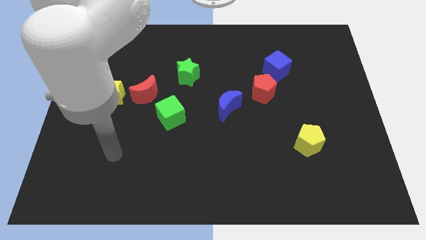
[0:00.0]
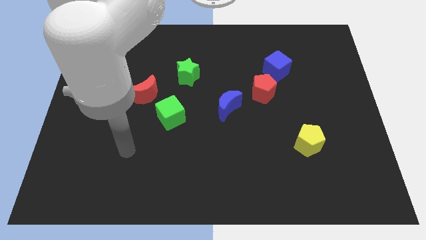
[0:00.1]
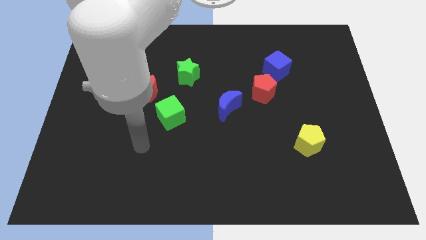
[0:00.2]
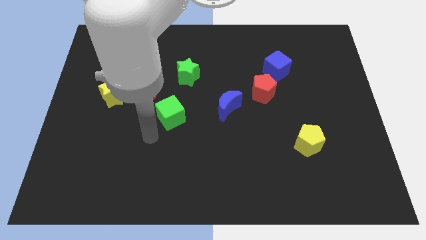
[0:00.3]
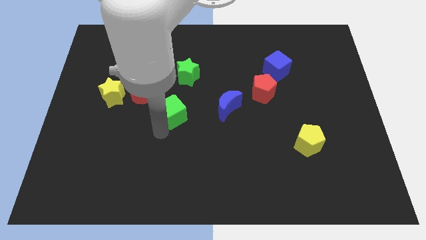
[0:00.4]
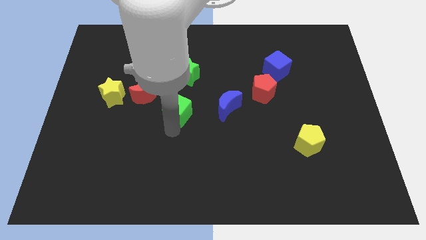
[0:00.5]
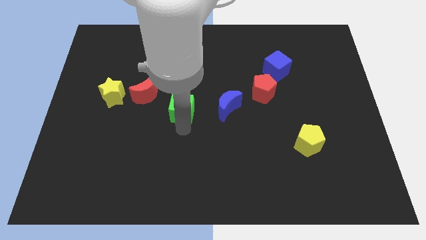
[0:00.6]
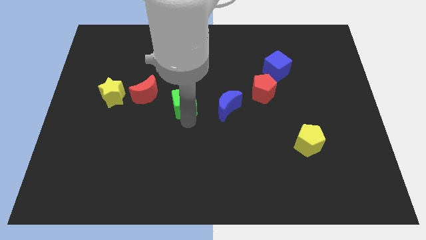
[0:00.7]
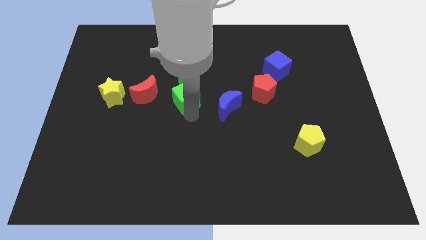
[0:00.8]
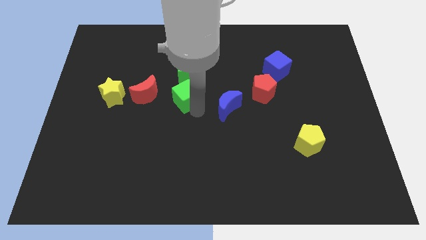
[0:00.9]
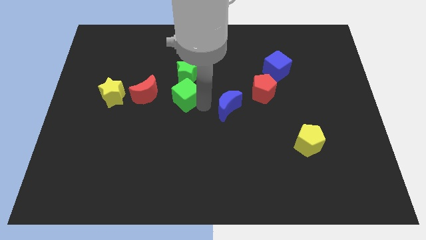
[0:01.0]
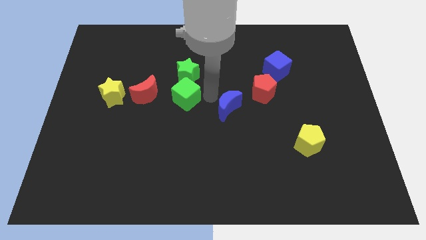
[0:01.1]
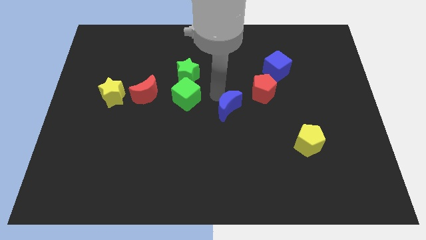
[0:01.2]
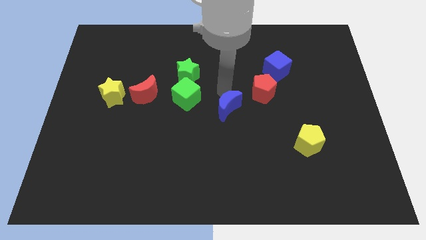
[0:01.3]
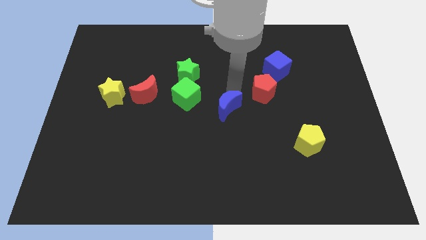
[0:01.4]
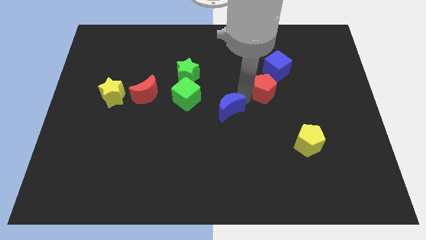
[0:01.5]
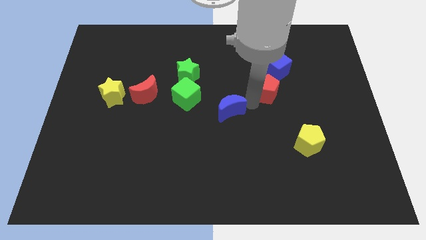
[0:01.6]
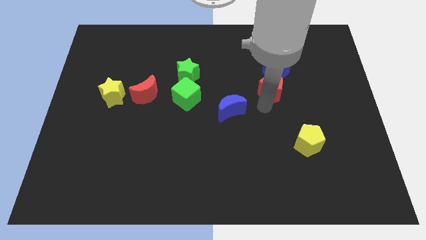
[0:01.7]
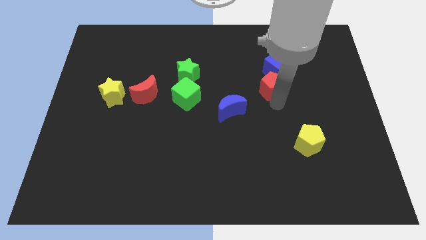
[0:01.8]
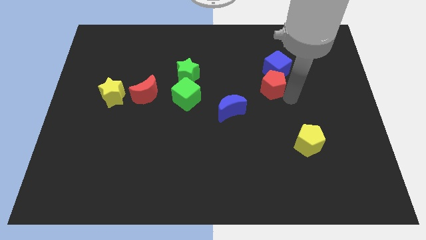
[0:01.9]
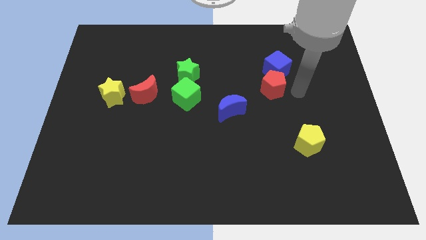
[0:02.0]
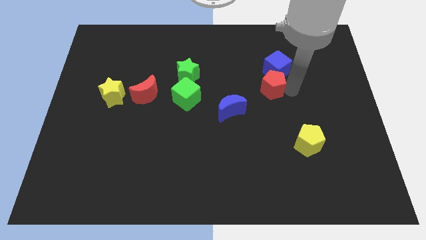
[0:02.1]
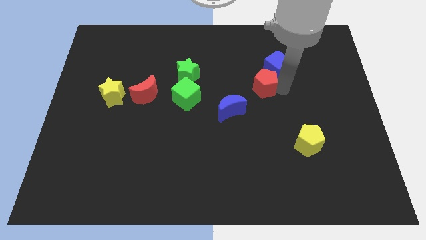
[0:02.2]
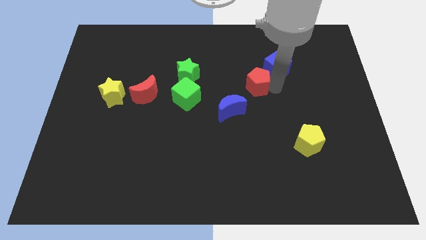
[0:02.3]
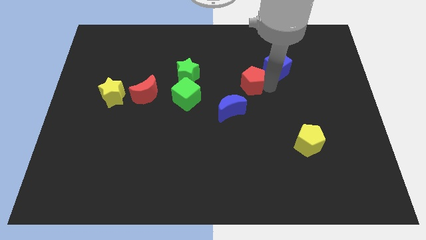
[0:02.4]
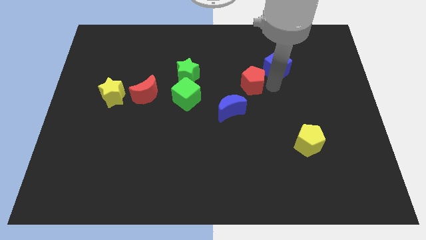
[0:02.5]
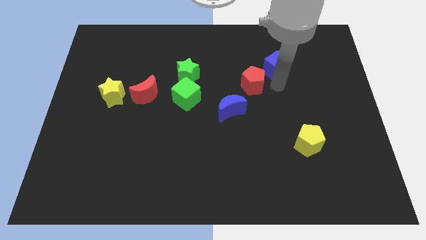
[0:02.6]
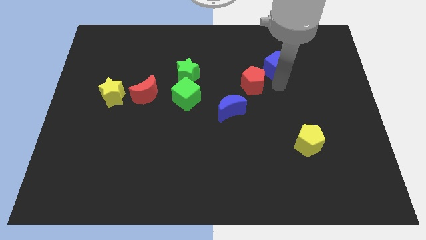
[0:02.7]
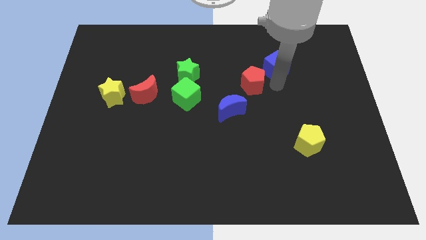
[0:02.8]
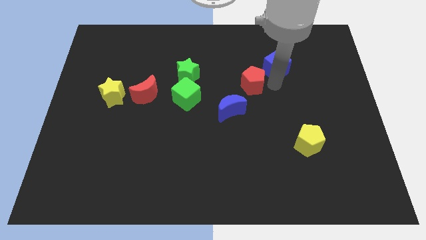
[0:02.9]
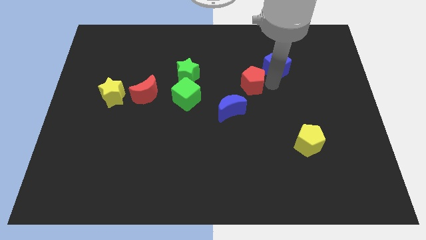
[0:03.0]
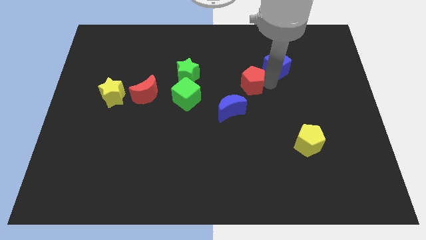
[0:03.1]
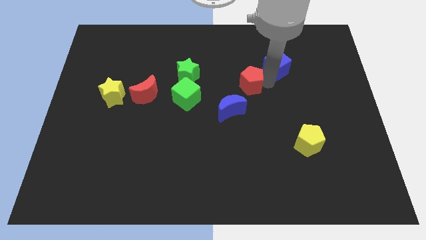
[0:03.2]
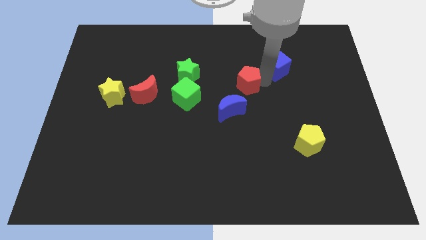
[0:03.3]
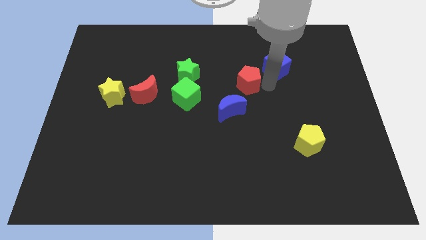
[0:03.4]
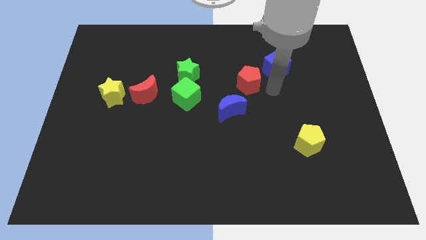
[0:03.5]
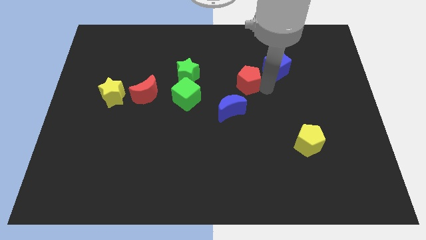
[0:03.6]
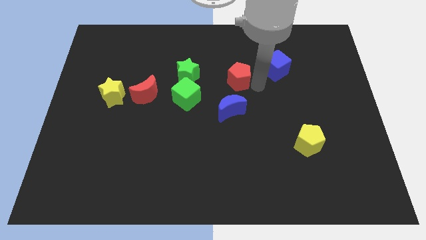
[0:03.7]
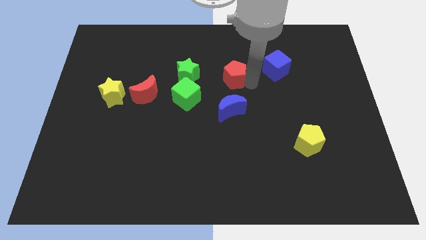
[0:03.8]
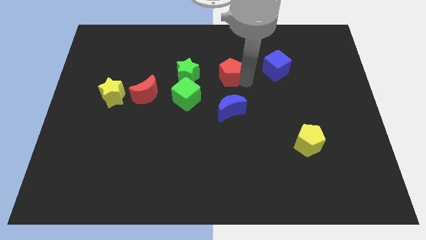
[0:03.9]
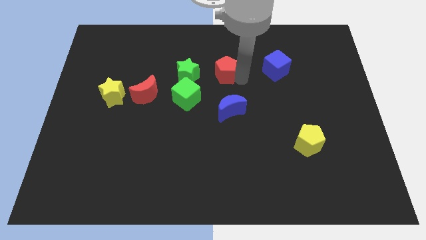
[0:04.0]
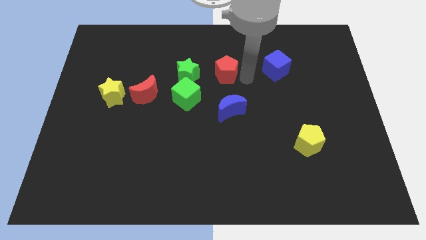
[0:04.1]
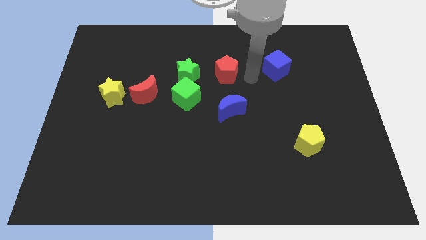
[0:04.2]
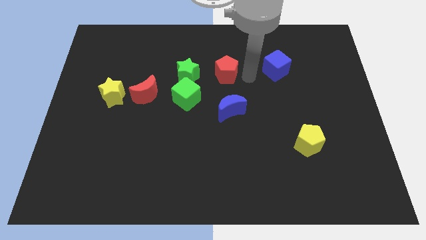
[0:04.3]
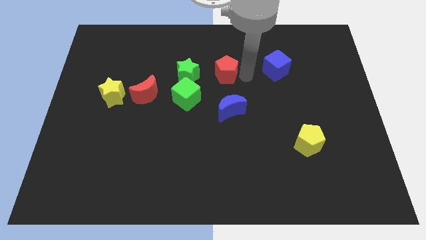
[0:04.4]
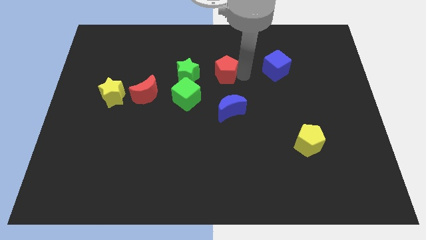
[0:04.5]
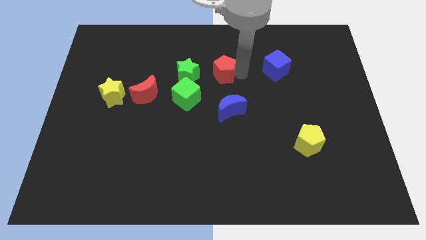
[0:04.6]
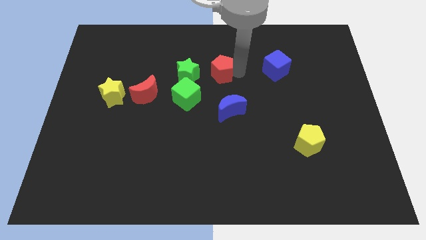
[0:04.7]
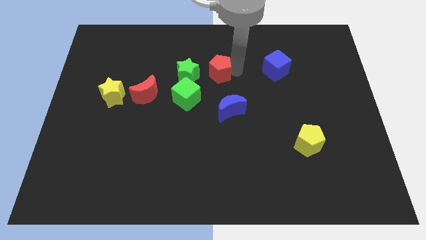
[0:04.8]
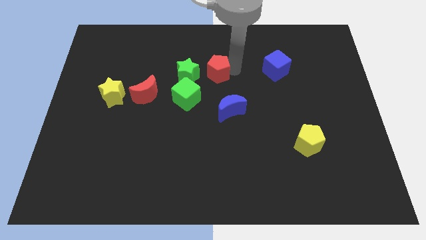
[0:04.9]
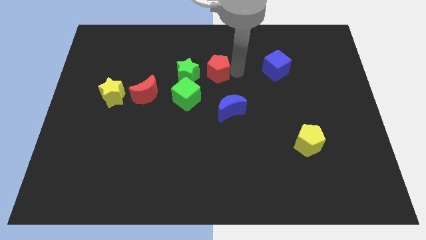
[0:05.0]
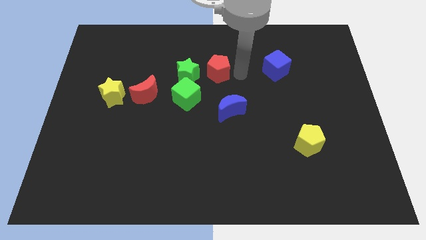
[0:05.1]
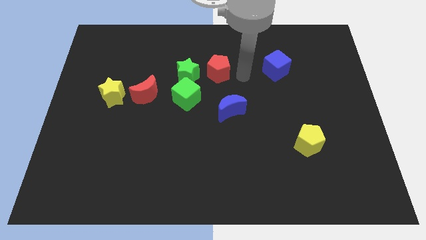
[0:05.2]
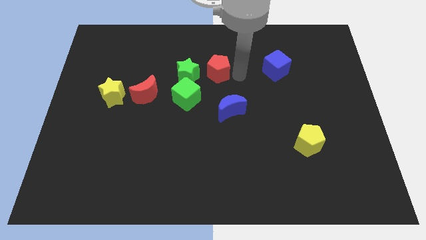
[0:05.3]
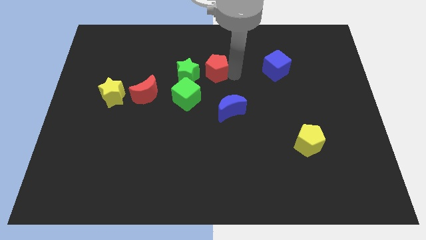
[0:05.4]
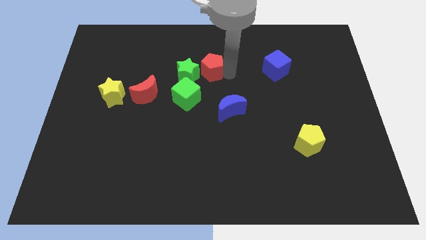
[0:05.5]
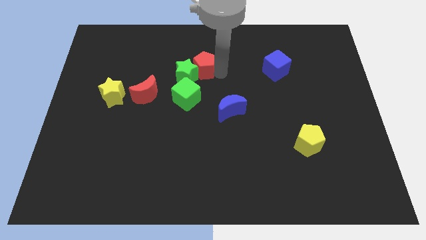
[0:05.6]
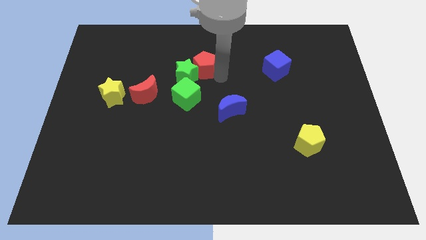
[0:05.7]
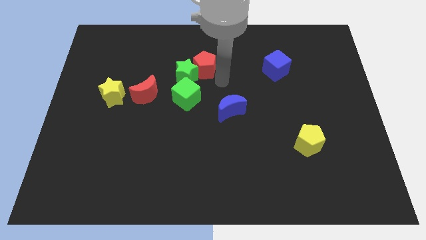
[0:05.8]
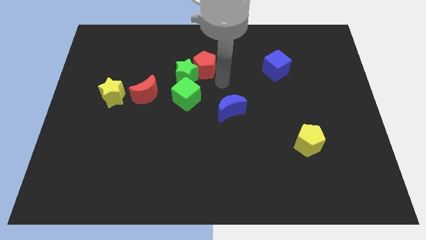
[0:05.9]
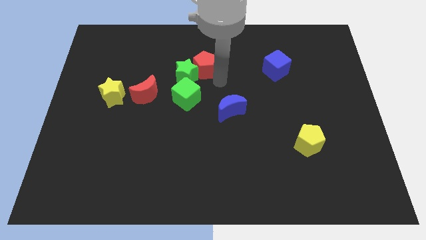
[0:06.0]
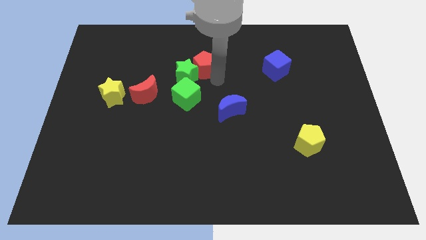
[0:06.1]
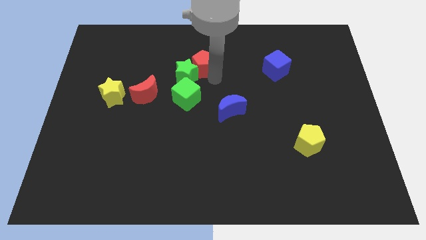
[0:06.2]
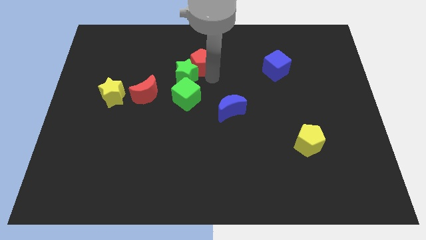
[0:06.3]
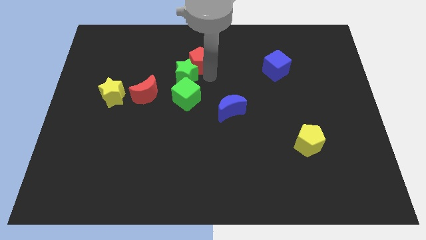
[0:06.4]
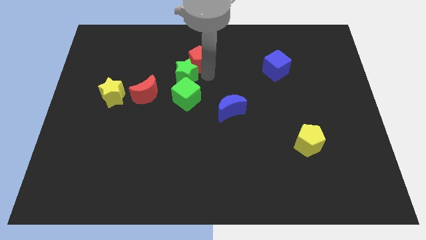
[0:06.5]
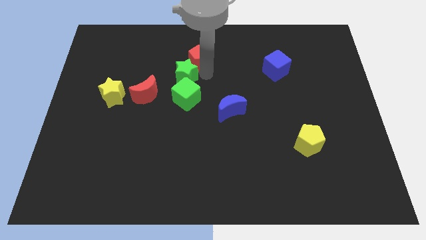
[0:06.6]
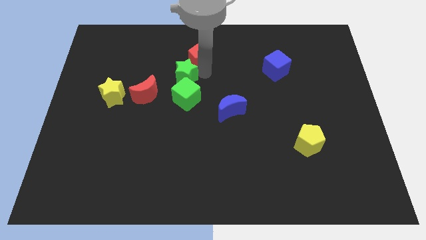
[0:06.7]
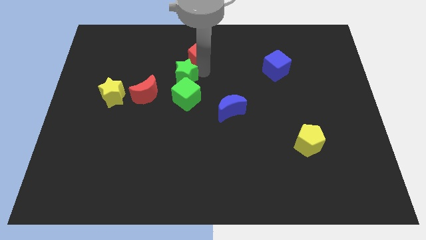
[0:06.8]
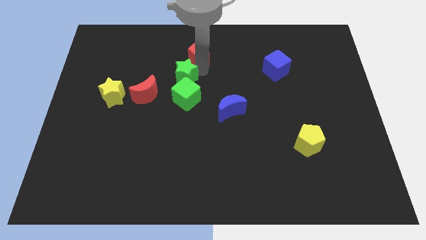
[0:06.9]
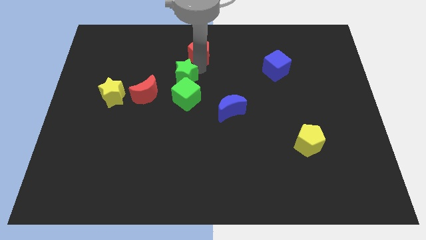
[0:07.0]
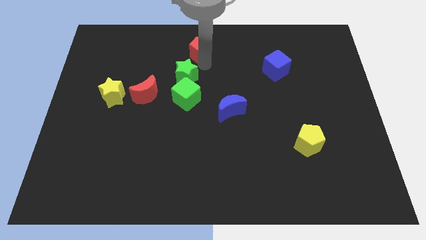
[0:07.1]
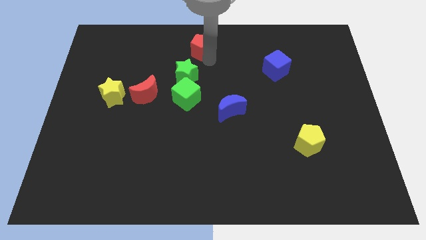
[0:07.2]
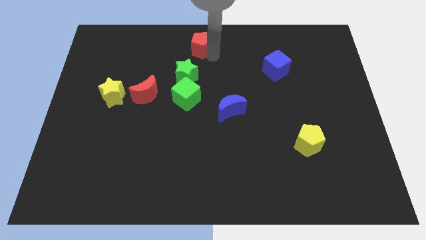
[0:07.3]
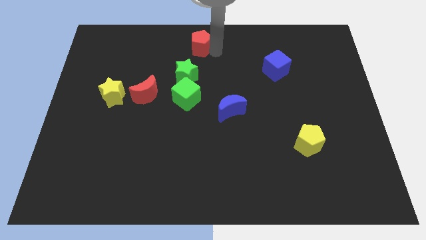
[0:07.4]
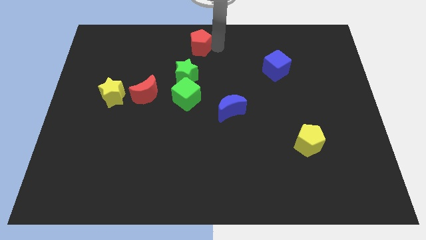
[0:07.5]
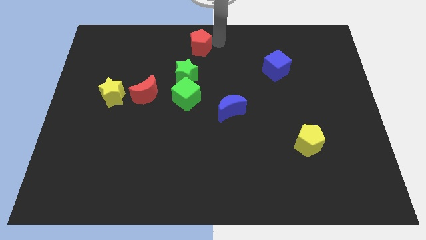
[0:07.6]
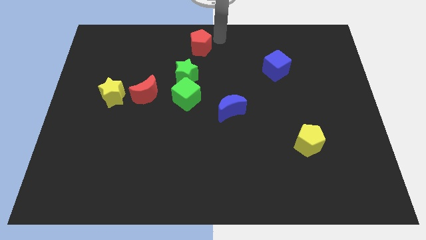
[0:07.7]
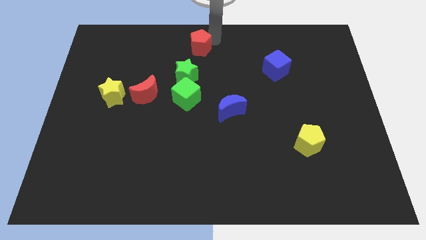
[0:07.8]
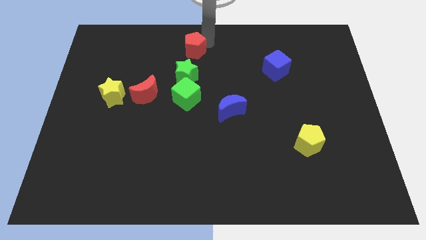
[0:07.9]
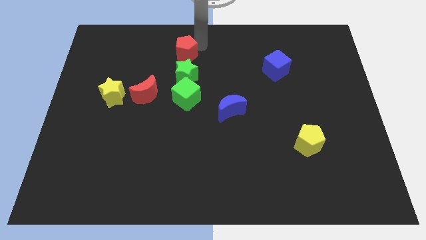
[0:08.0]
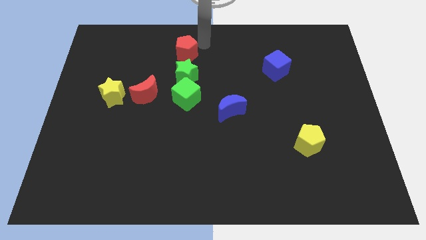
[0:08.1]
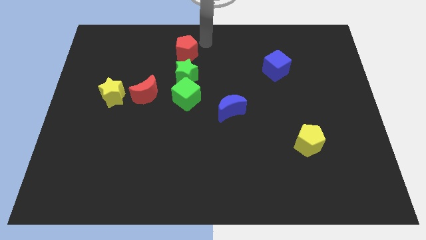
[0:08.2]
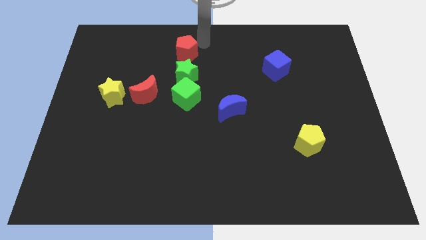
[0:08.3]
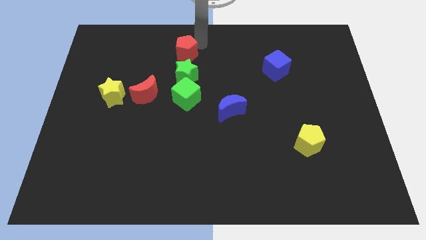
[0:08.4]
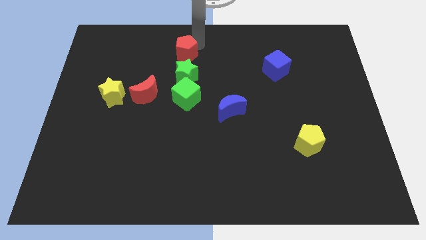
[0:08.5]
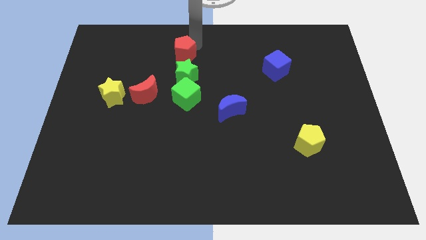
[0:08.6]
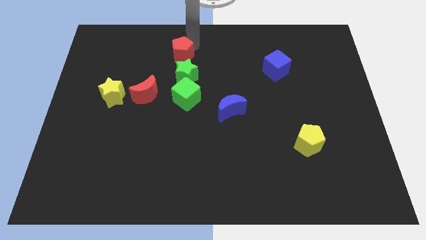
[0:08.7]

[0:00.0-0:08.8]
push the red pentagon to the top left side of the green star
